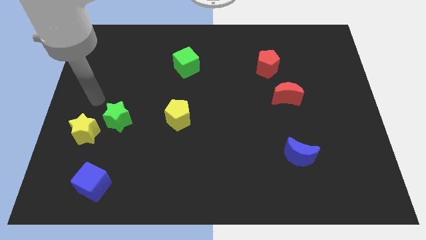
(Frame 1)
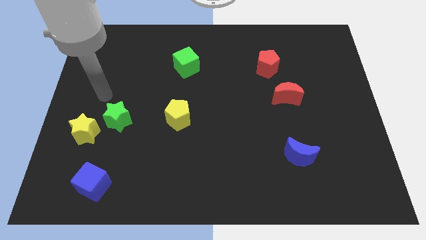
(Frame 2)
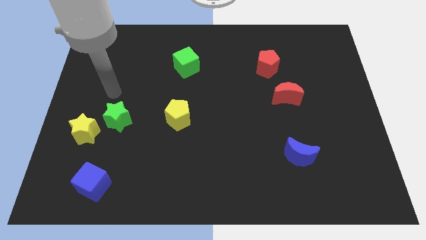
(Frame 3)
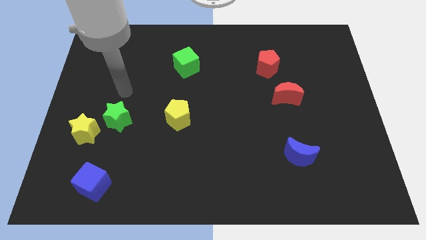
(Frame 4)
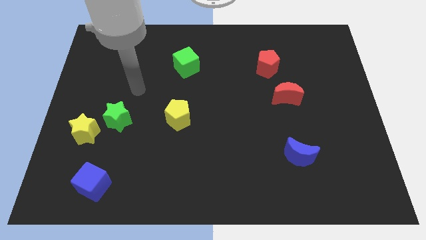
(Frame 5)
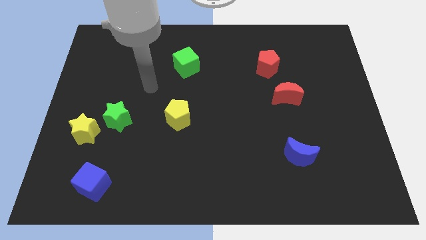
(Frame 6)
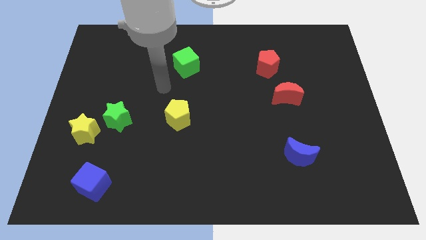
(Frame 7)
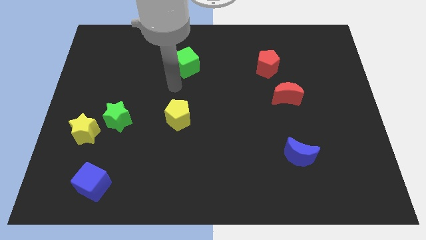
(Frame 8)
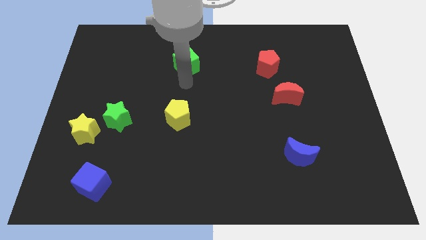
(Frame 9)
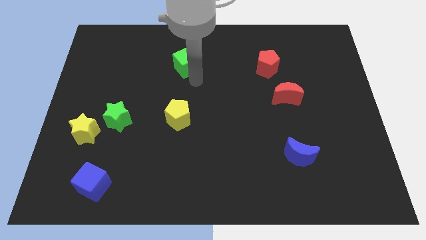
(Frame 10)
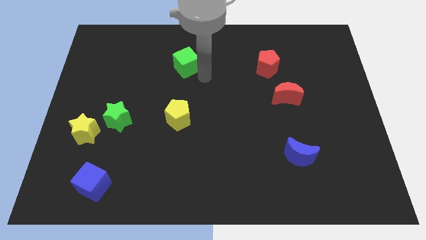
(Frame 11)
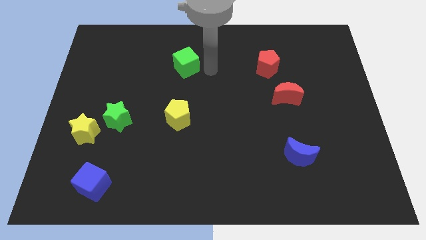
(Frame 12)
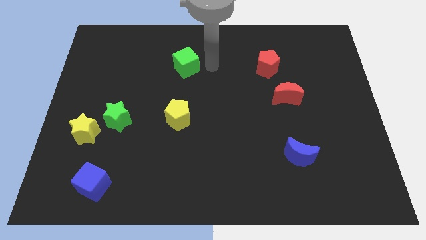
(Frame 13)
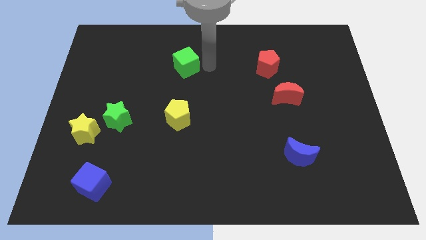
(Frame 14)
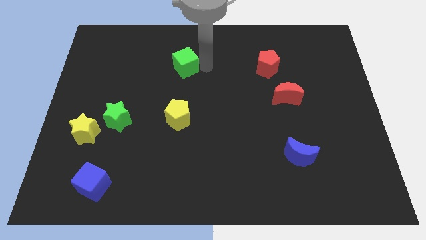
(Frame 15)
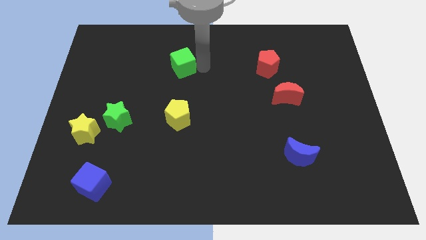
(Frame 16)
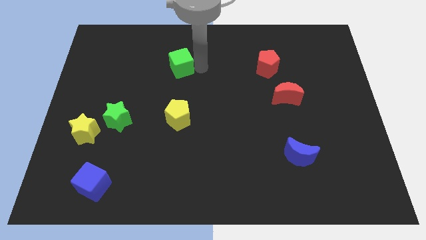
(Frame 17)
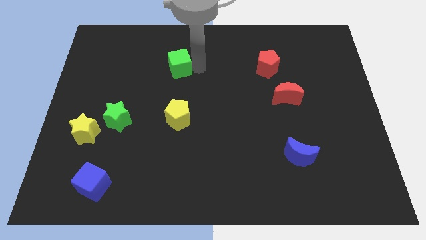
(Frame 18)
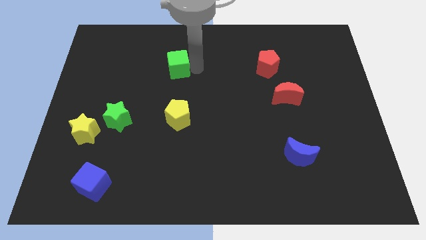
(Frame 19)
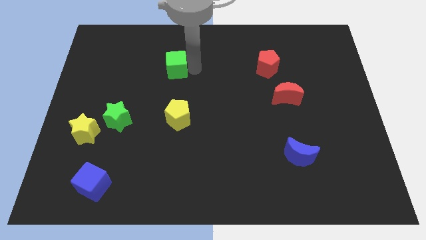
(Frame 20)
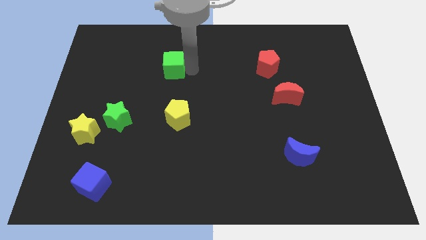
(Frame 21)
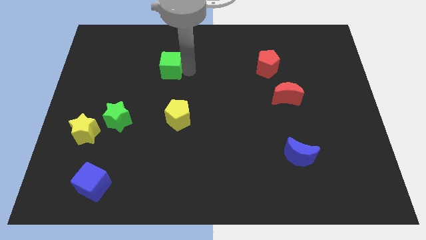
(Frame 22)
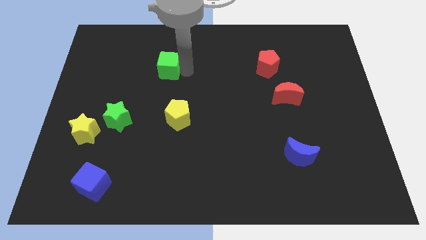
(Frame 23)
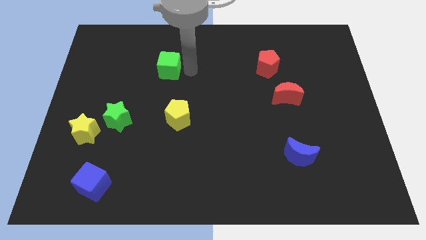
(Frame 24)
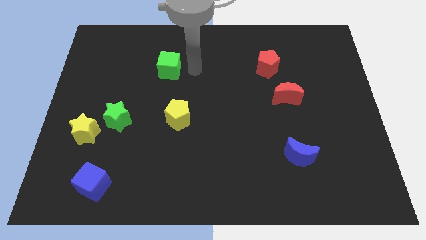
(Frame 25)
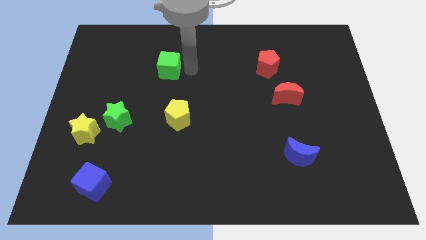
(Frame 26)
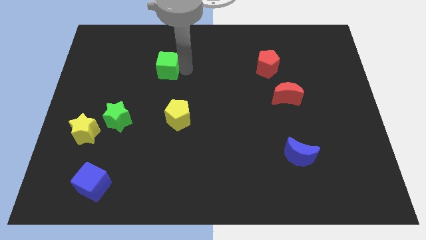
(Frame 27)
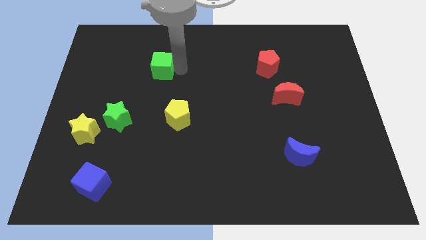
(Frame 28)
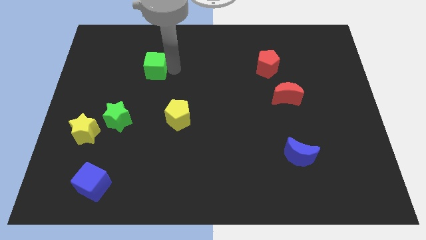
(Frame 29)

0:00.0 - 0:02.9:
slide the green cube a little to the left

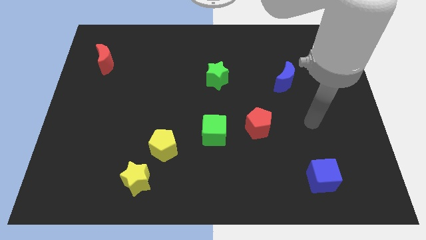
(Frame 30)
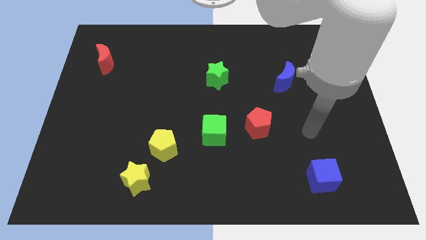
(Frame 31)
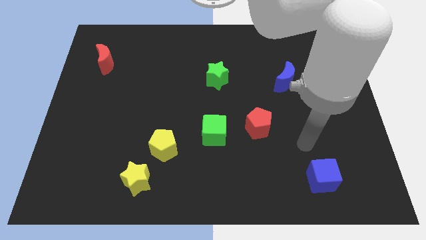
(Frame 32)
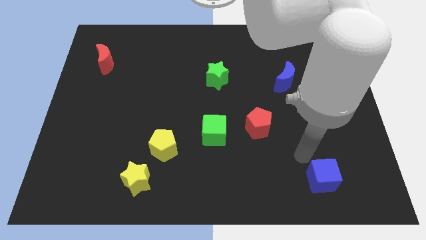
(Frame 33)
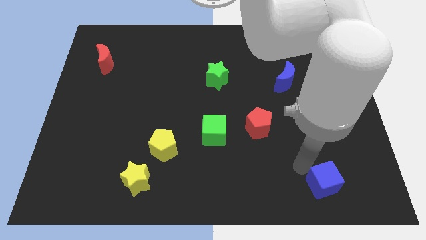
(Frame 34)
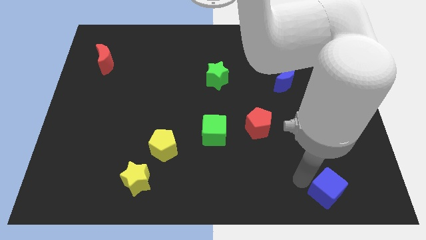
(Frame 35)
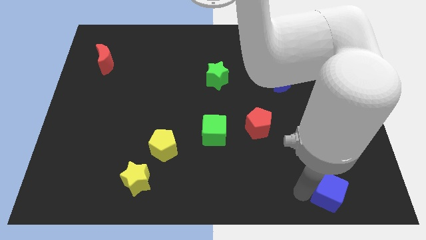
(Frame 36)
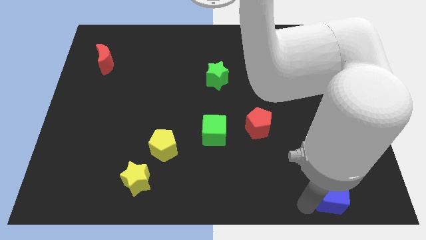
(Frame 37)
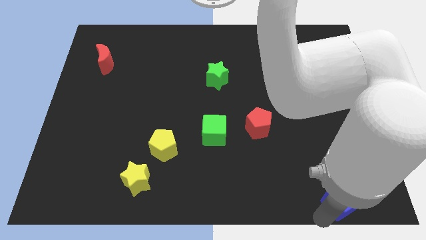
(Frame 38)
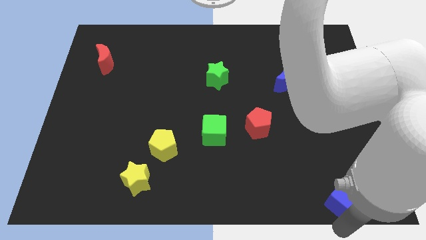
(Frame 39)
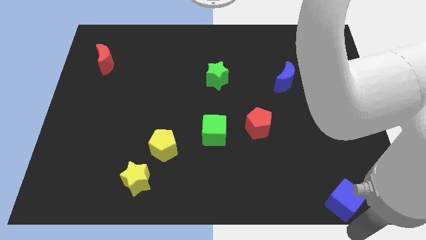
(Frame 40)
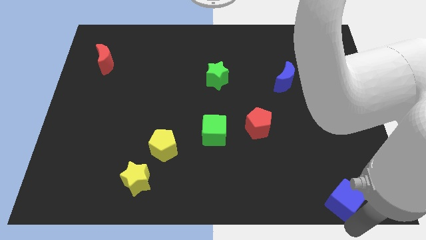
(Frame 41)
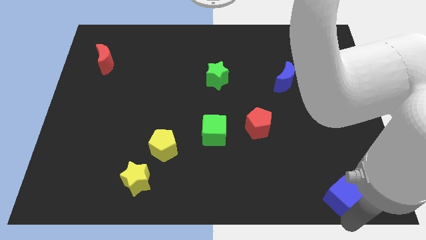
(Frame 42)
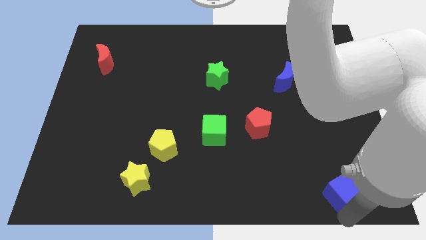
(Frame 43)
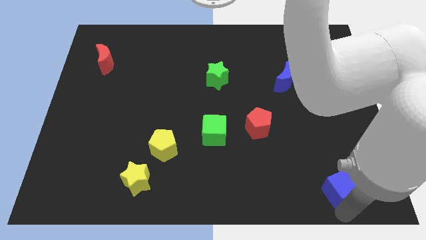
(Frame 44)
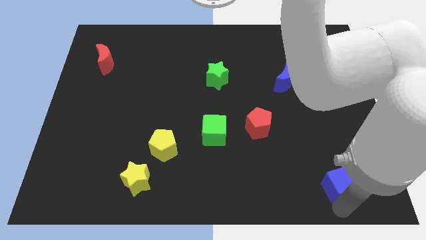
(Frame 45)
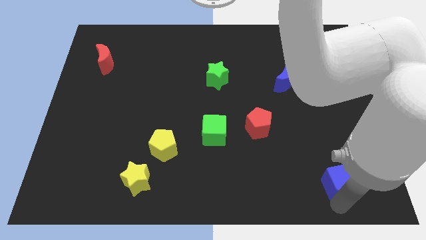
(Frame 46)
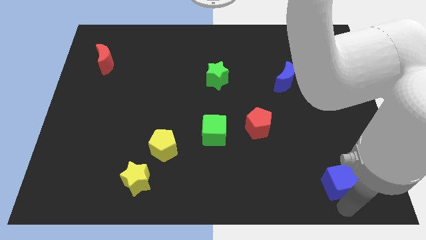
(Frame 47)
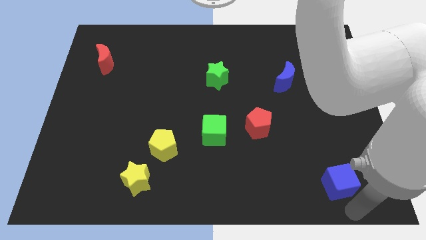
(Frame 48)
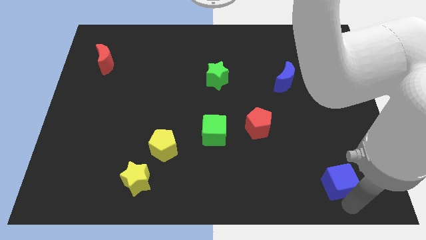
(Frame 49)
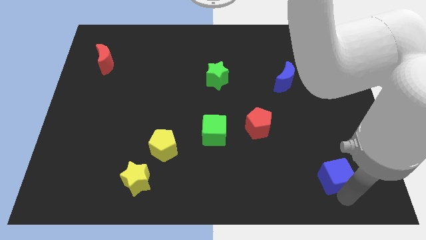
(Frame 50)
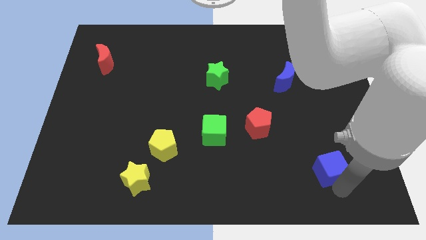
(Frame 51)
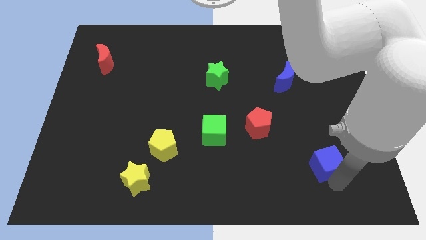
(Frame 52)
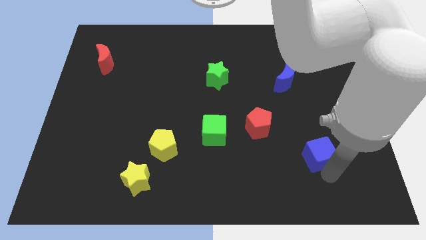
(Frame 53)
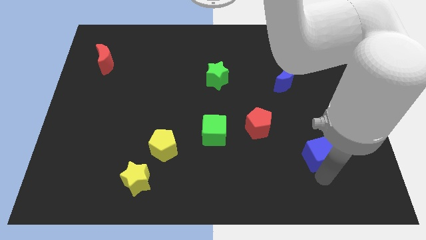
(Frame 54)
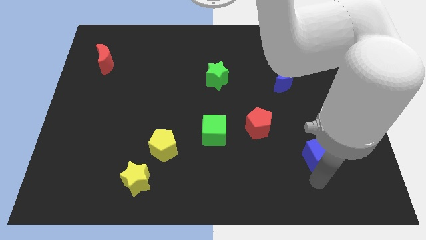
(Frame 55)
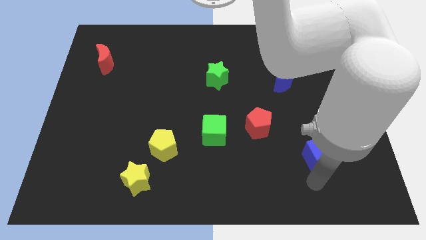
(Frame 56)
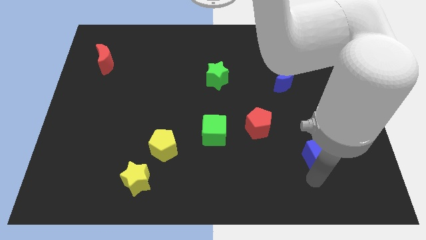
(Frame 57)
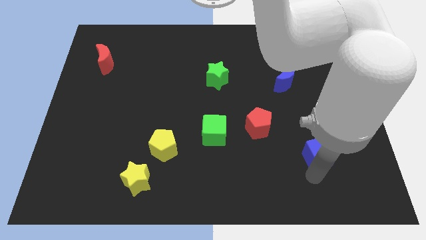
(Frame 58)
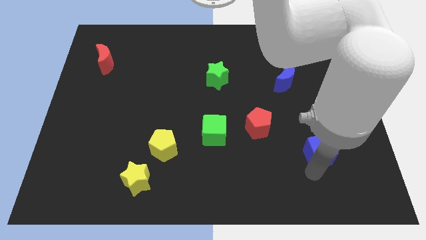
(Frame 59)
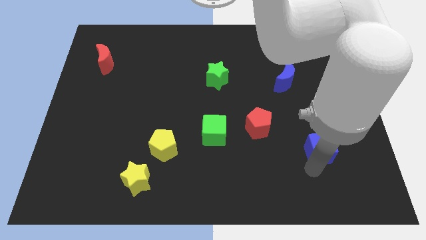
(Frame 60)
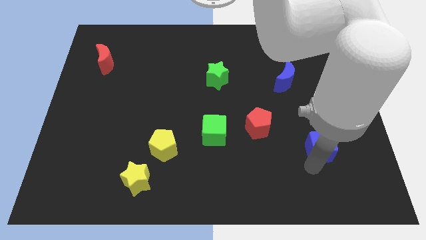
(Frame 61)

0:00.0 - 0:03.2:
move the blue cube upwards a little

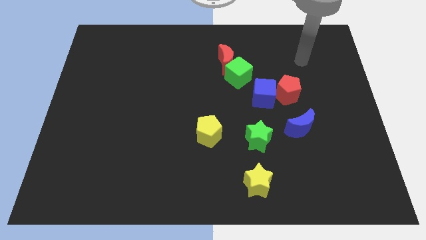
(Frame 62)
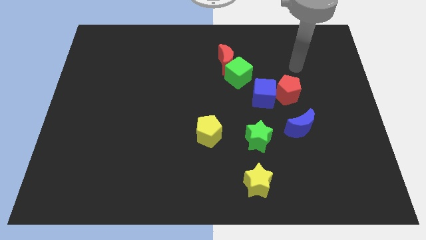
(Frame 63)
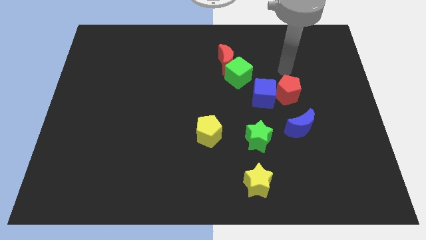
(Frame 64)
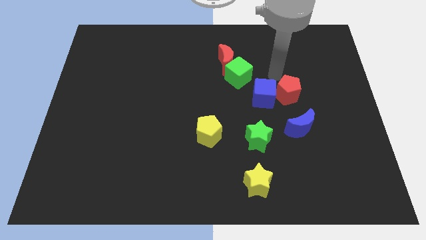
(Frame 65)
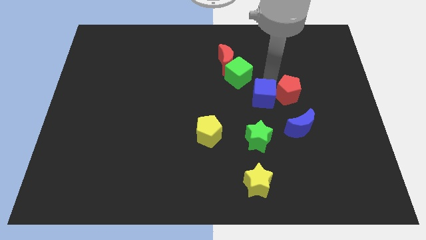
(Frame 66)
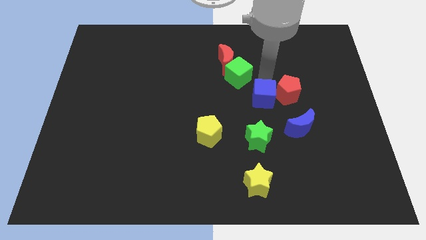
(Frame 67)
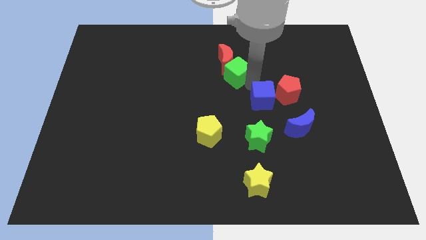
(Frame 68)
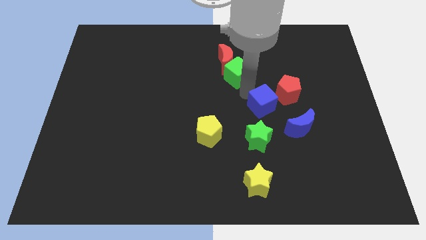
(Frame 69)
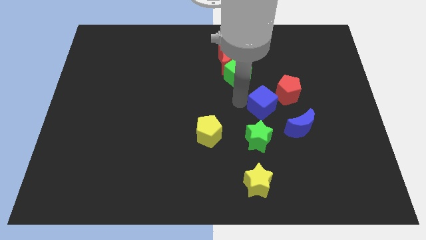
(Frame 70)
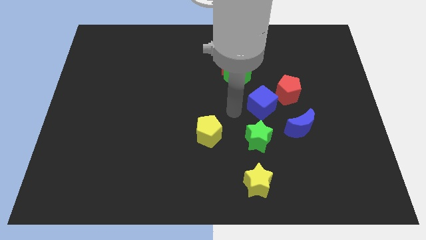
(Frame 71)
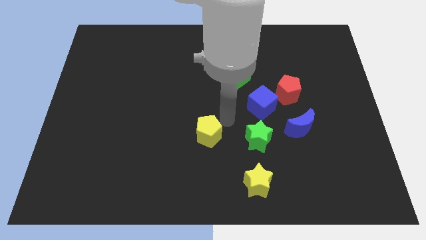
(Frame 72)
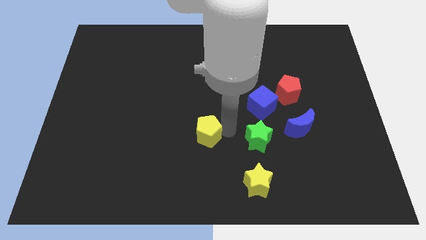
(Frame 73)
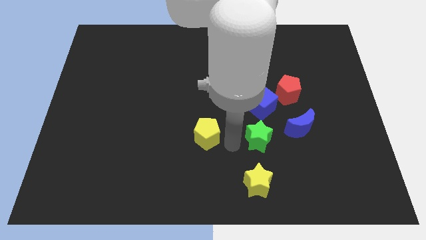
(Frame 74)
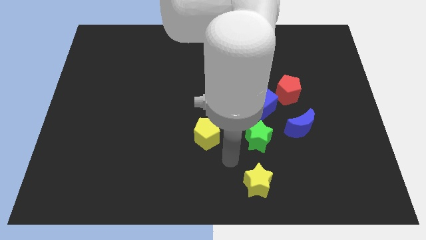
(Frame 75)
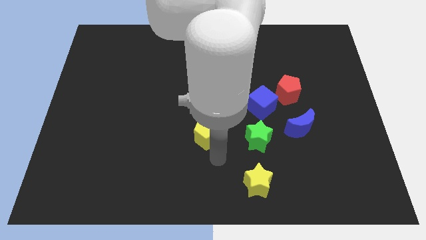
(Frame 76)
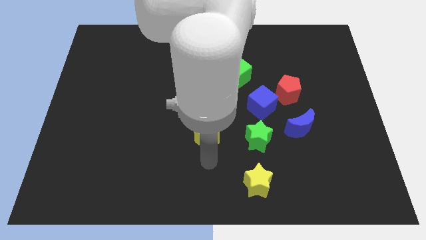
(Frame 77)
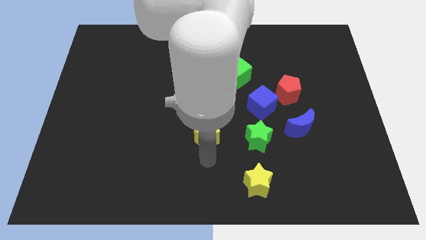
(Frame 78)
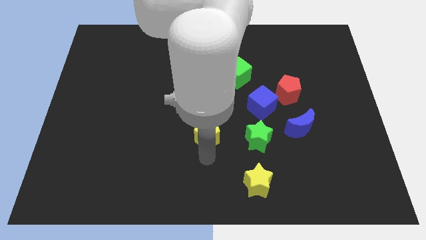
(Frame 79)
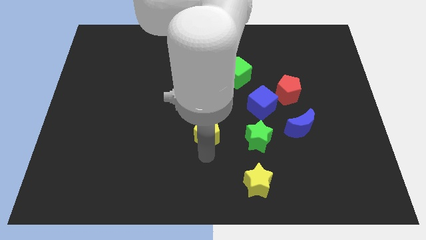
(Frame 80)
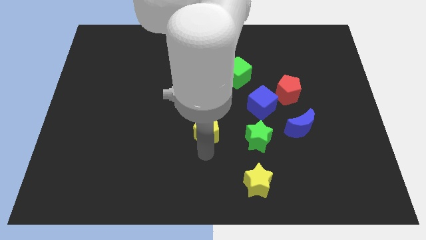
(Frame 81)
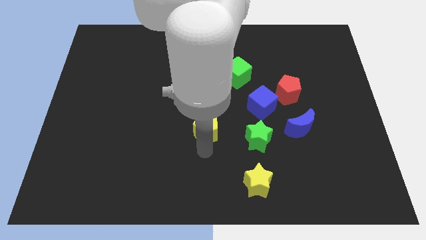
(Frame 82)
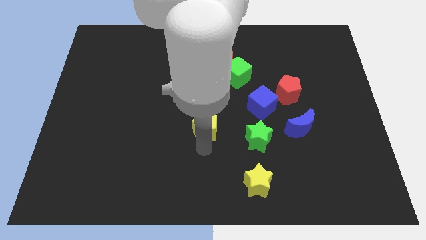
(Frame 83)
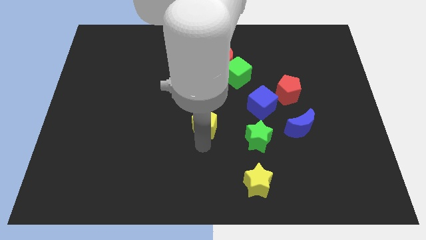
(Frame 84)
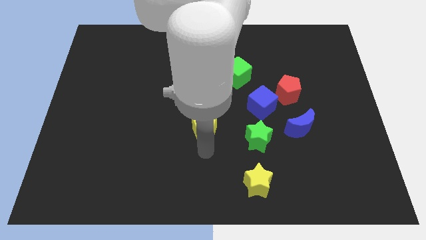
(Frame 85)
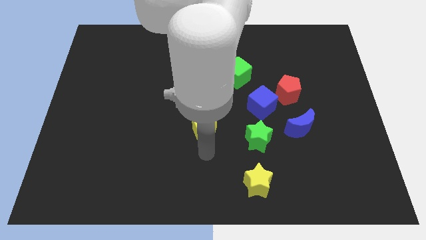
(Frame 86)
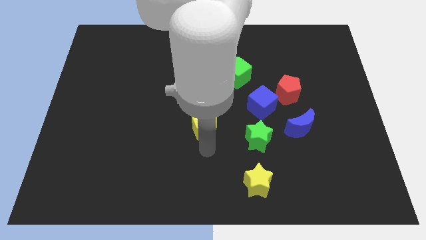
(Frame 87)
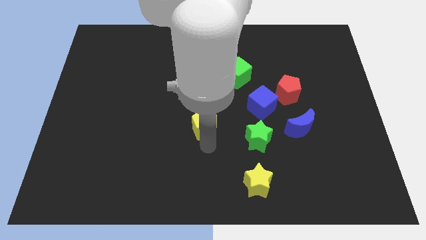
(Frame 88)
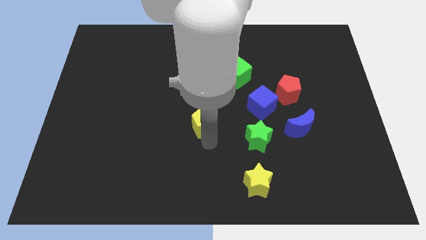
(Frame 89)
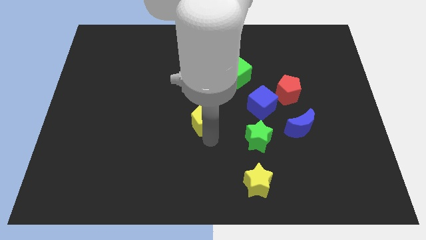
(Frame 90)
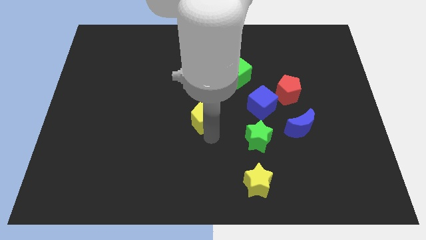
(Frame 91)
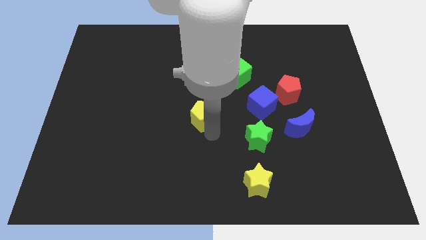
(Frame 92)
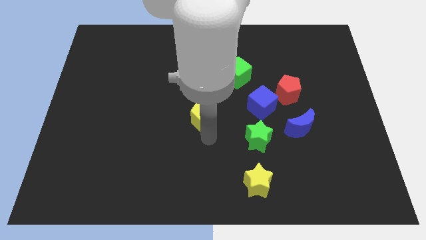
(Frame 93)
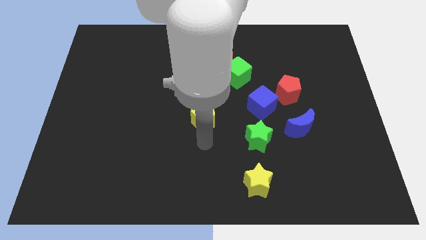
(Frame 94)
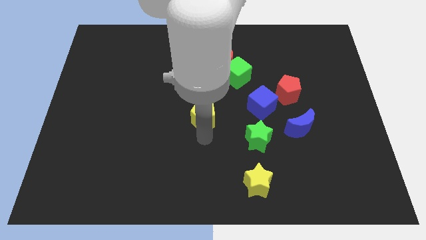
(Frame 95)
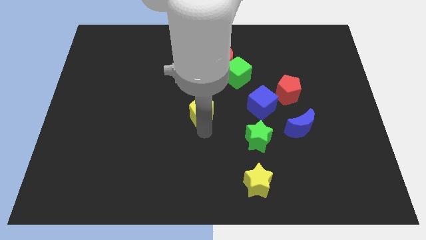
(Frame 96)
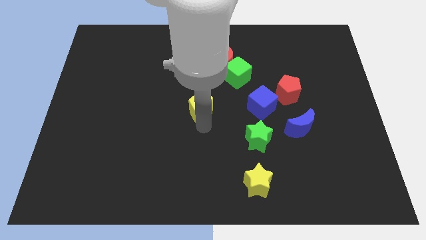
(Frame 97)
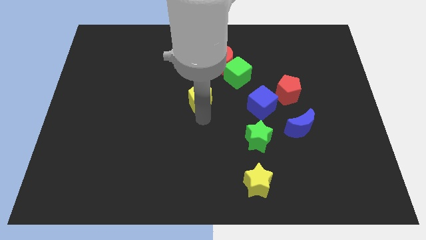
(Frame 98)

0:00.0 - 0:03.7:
push the yellow pentagon a bit upwards
